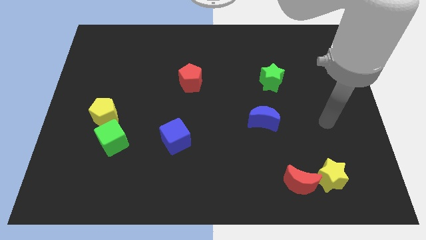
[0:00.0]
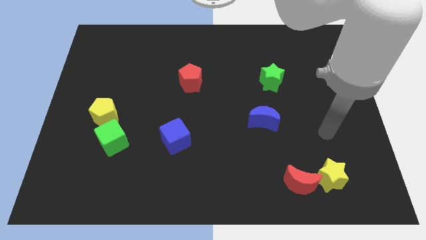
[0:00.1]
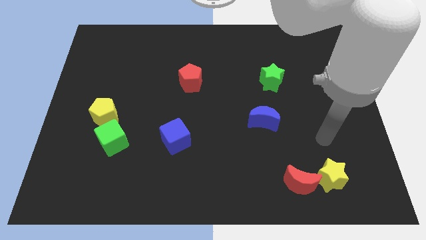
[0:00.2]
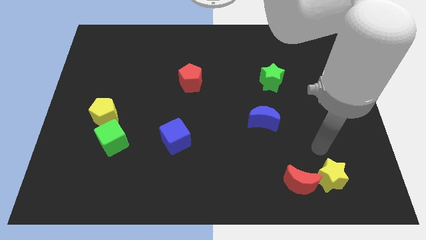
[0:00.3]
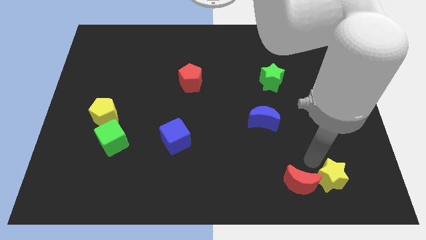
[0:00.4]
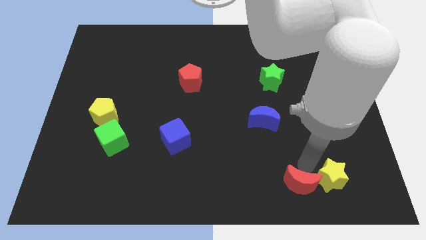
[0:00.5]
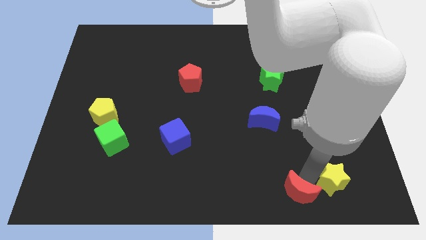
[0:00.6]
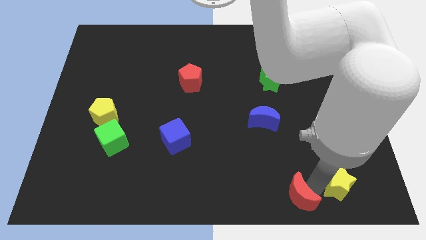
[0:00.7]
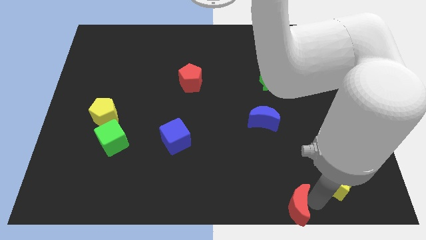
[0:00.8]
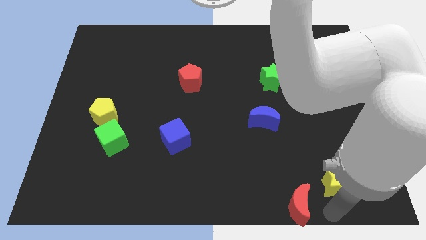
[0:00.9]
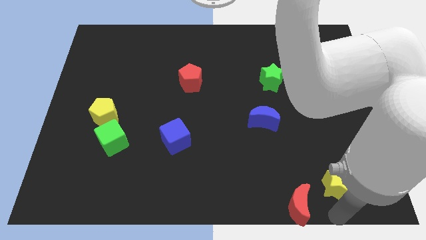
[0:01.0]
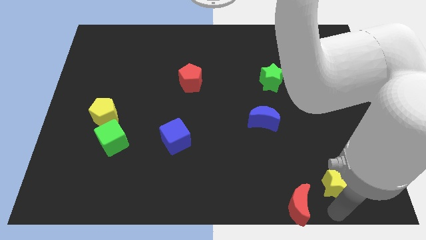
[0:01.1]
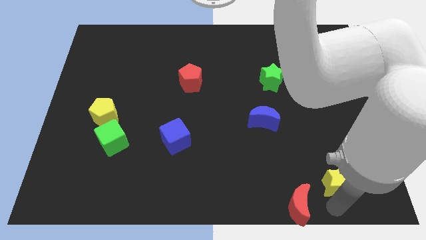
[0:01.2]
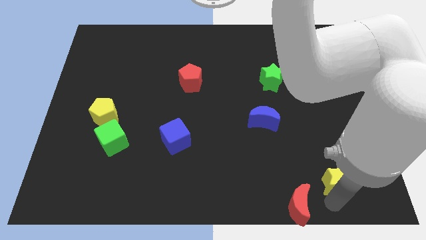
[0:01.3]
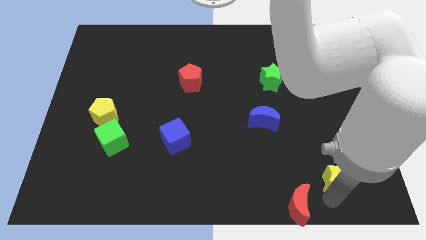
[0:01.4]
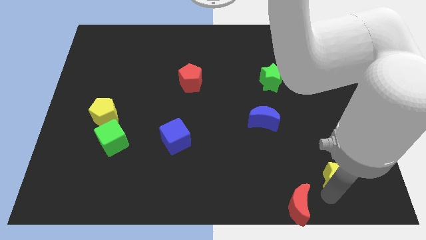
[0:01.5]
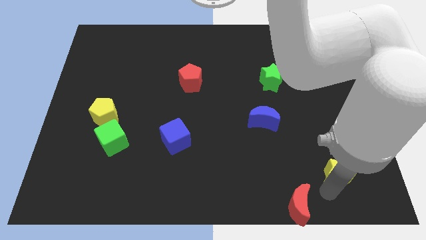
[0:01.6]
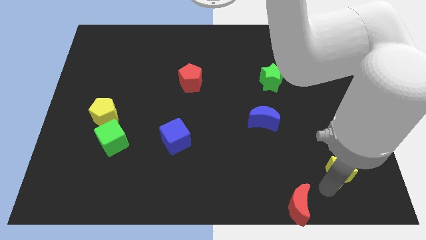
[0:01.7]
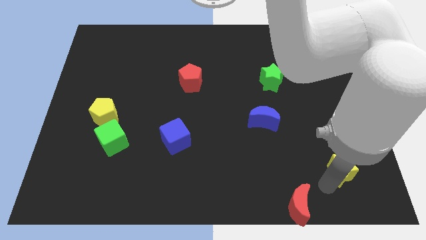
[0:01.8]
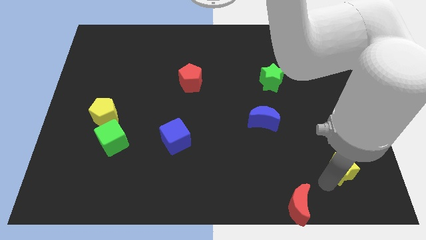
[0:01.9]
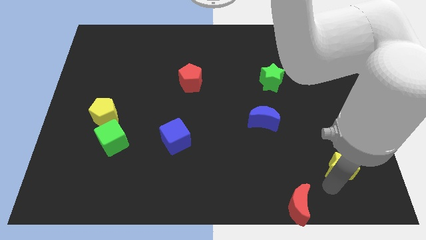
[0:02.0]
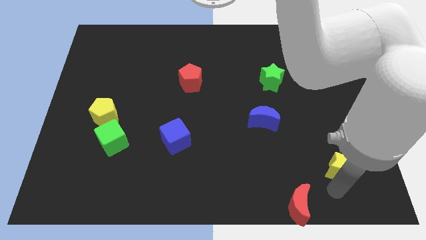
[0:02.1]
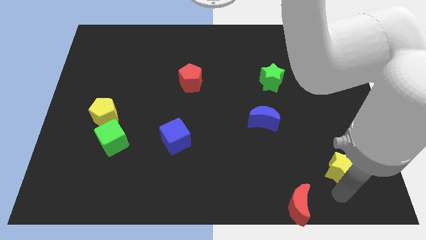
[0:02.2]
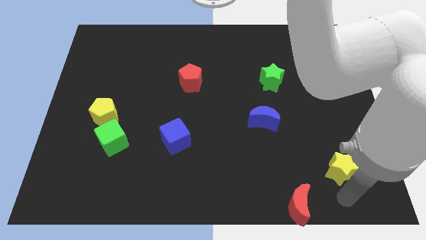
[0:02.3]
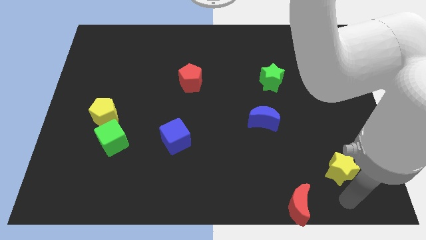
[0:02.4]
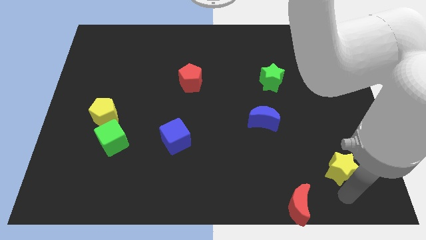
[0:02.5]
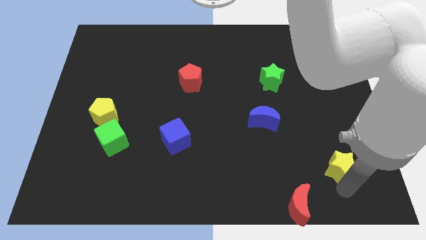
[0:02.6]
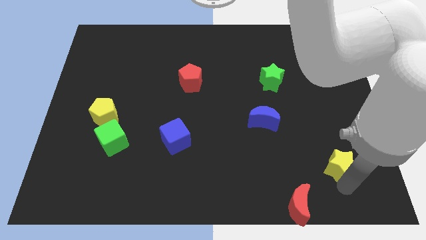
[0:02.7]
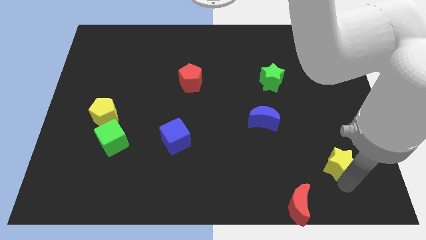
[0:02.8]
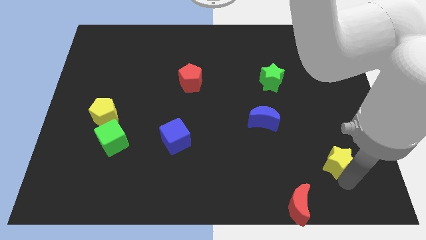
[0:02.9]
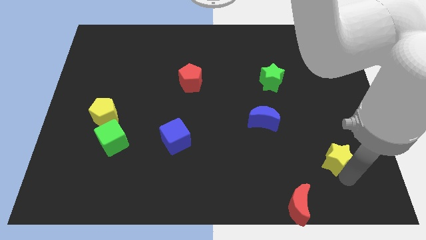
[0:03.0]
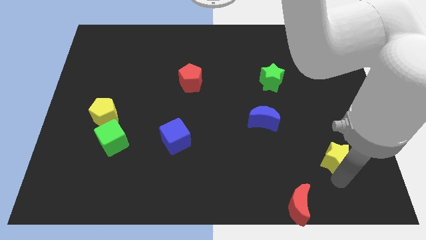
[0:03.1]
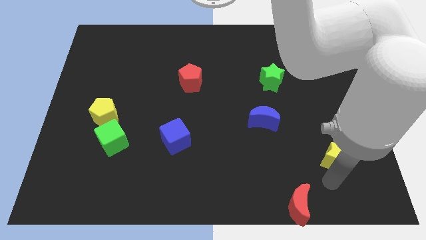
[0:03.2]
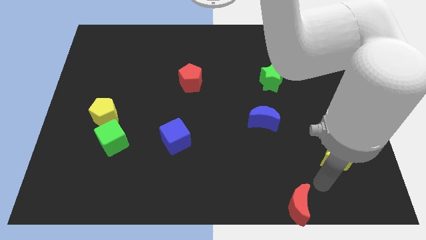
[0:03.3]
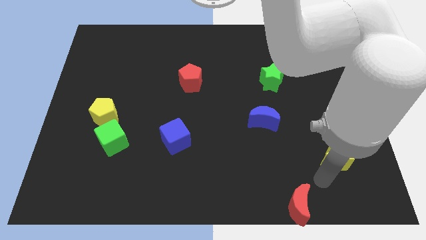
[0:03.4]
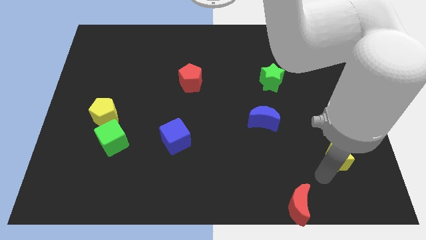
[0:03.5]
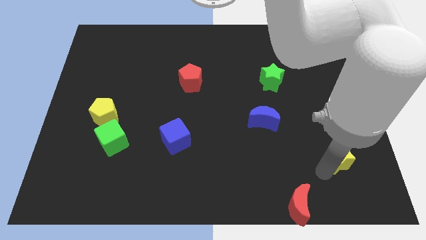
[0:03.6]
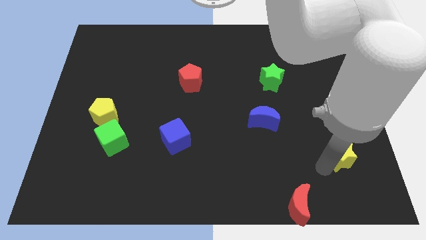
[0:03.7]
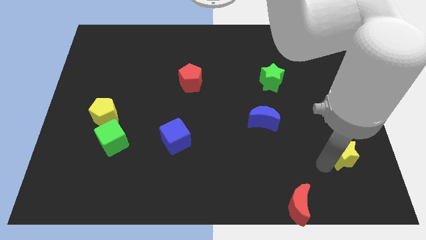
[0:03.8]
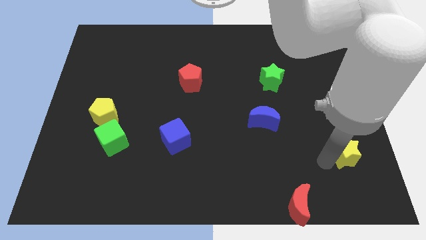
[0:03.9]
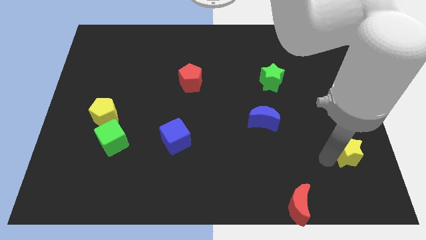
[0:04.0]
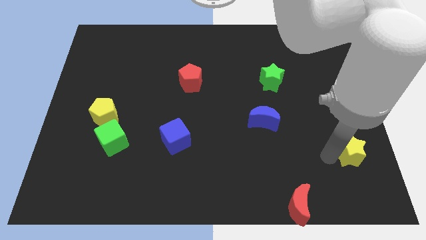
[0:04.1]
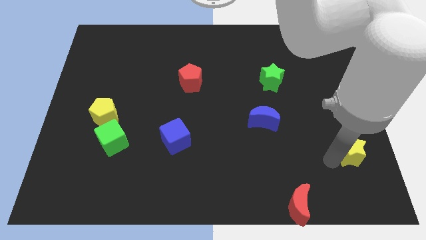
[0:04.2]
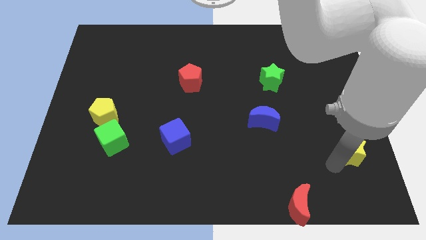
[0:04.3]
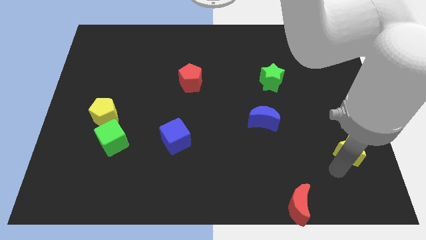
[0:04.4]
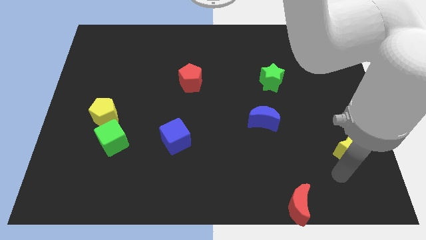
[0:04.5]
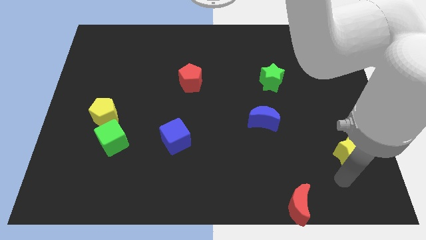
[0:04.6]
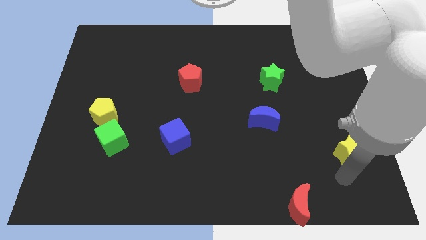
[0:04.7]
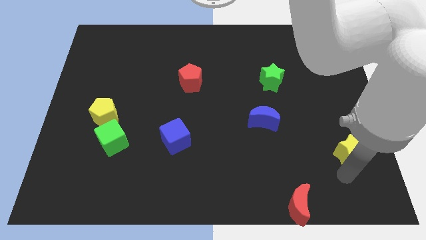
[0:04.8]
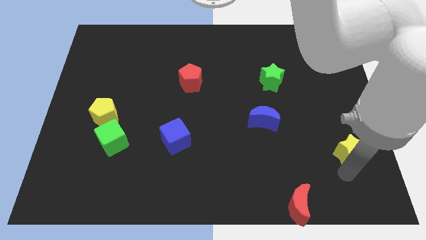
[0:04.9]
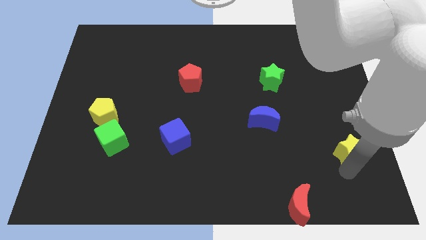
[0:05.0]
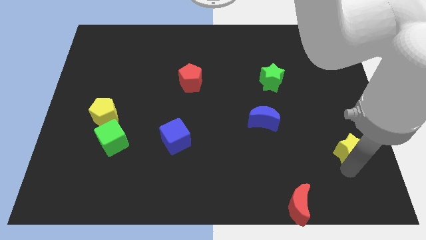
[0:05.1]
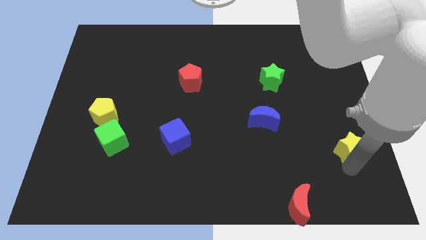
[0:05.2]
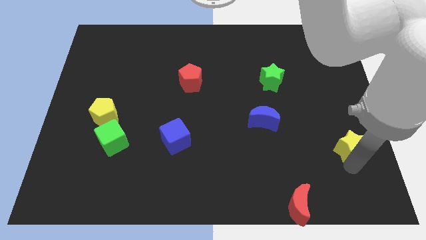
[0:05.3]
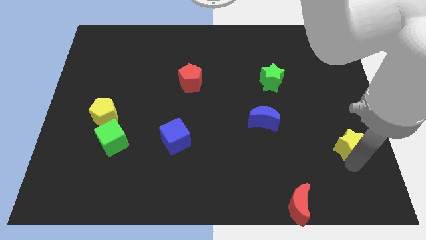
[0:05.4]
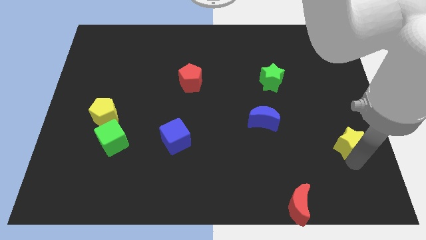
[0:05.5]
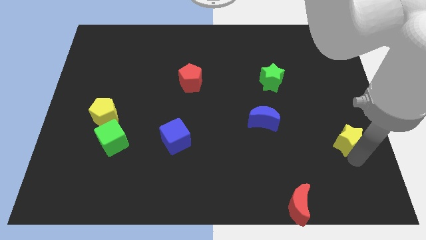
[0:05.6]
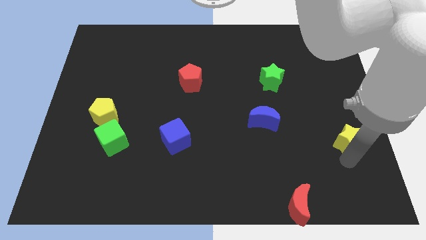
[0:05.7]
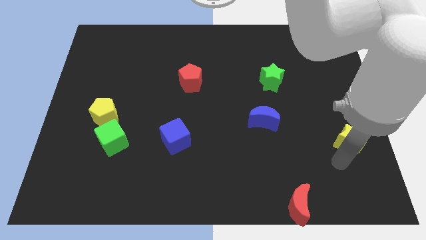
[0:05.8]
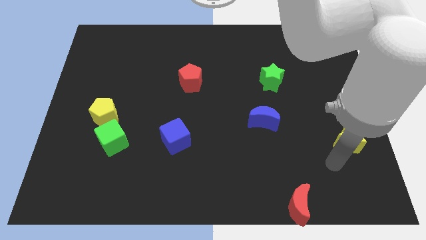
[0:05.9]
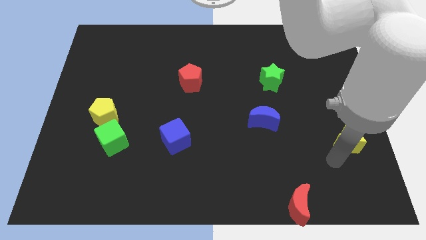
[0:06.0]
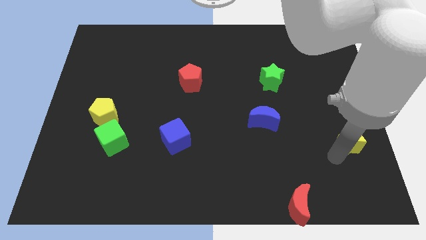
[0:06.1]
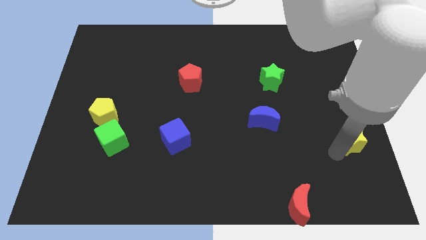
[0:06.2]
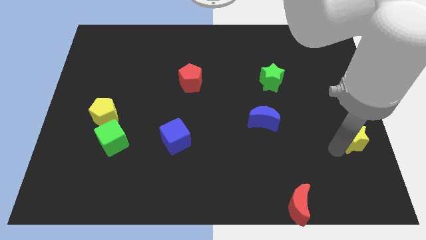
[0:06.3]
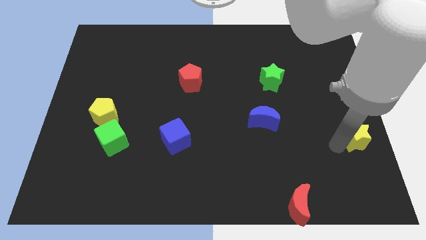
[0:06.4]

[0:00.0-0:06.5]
slide the yellow star to the right side of the board
